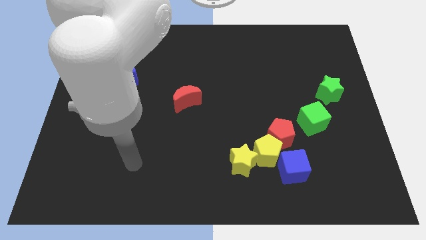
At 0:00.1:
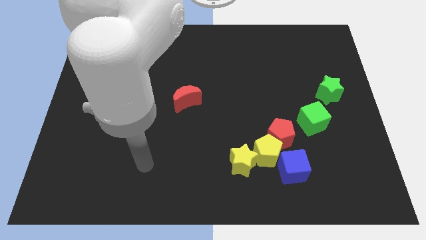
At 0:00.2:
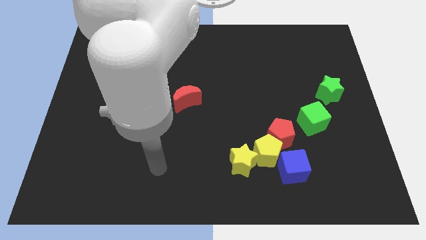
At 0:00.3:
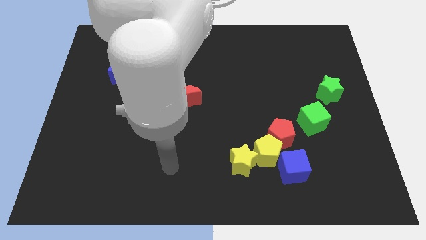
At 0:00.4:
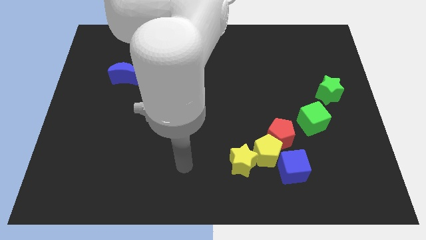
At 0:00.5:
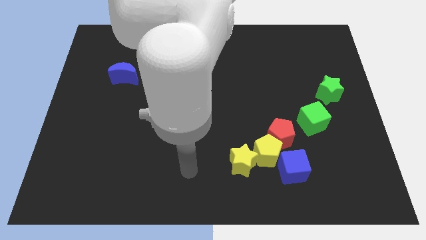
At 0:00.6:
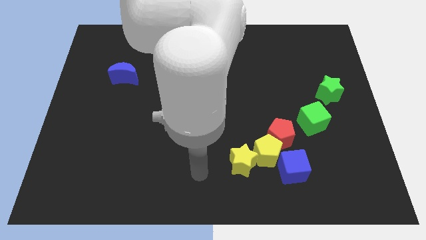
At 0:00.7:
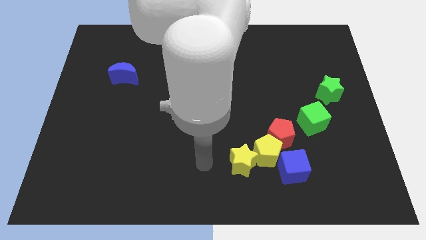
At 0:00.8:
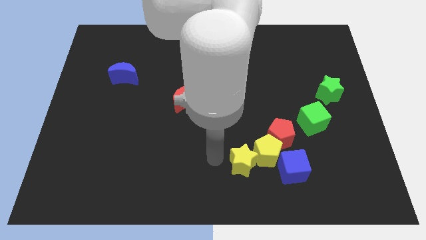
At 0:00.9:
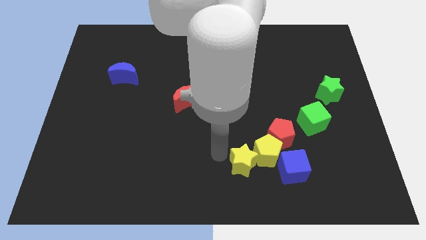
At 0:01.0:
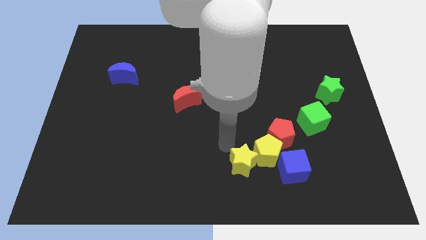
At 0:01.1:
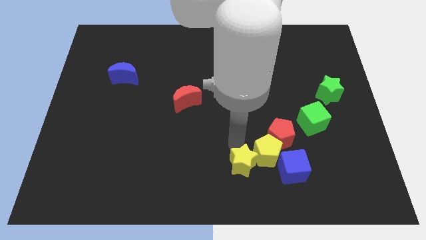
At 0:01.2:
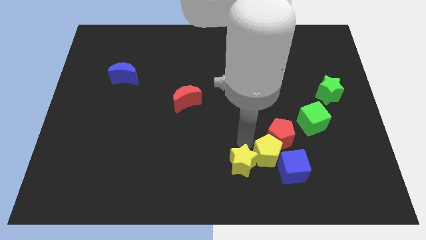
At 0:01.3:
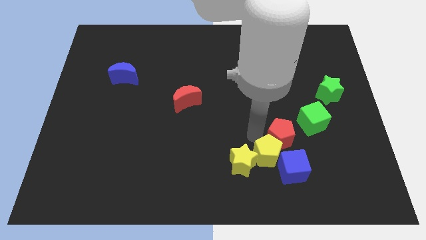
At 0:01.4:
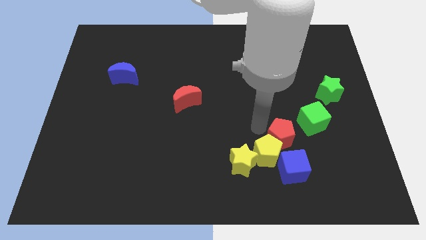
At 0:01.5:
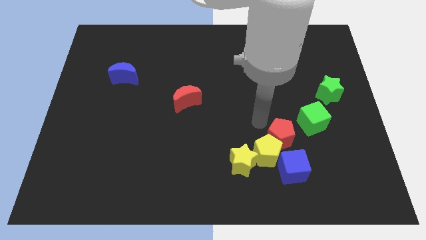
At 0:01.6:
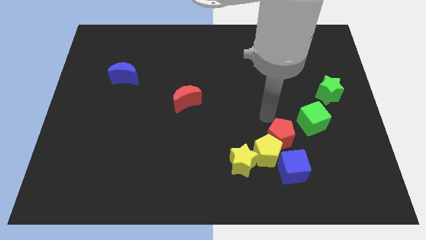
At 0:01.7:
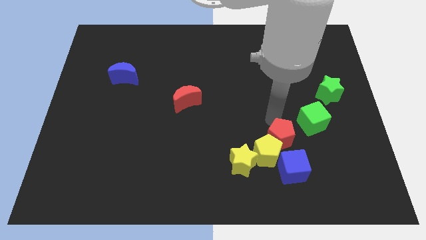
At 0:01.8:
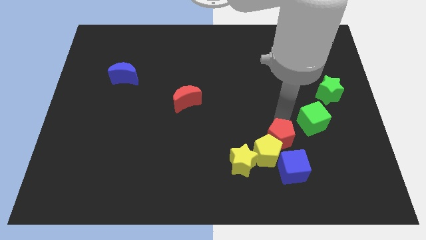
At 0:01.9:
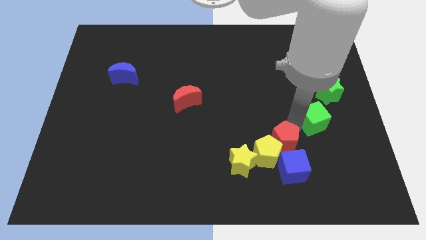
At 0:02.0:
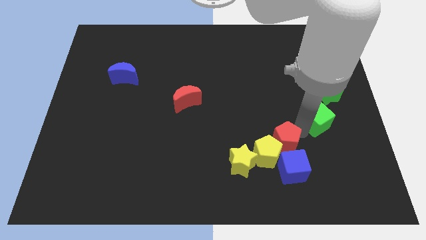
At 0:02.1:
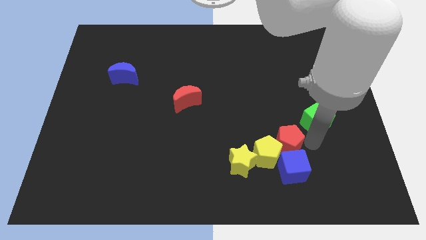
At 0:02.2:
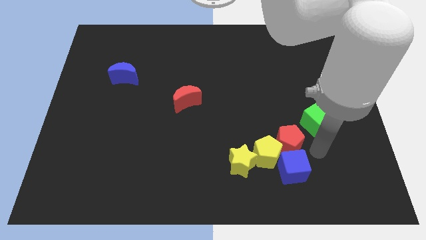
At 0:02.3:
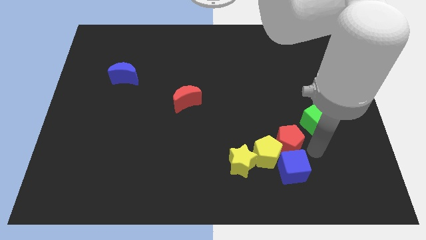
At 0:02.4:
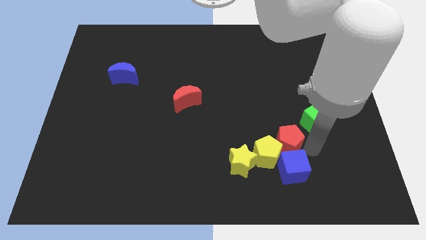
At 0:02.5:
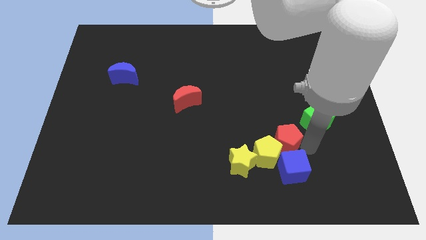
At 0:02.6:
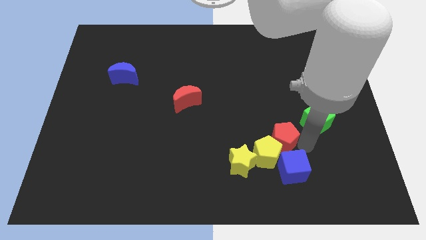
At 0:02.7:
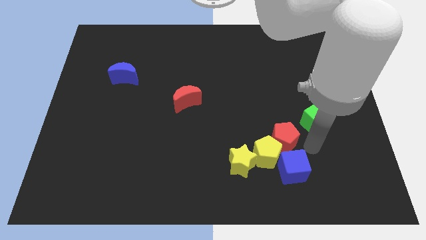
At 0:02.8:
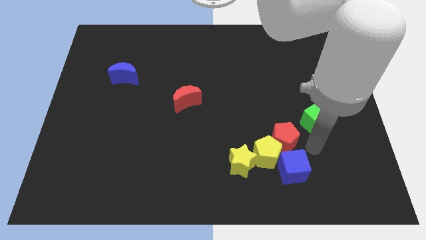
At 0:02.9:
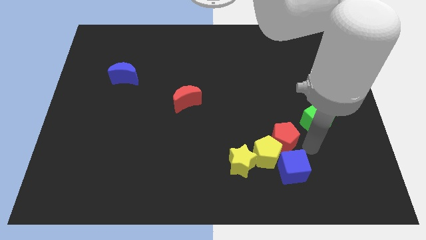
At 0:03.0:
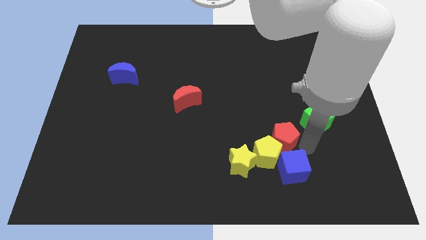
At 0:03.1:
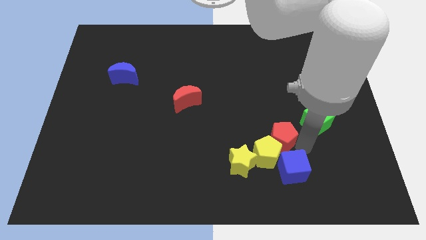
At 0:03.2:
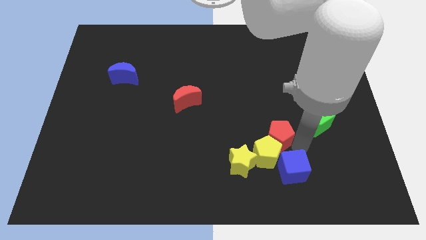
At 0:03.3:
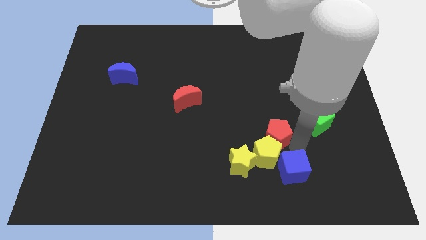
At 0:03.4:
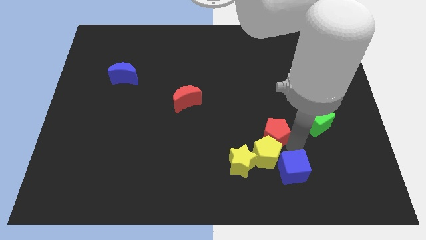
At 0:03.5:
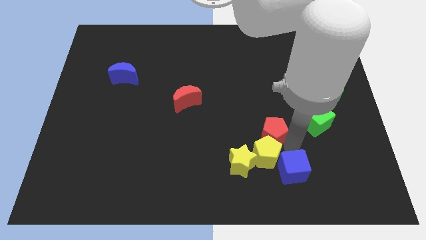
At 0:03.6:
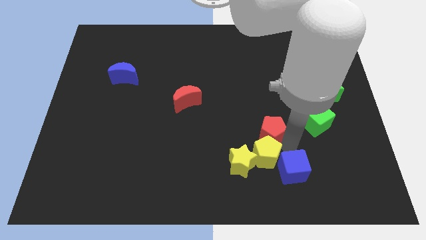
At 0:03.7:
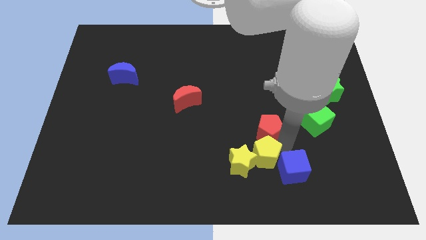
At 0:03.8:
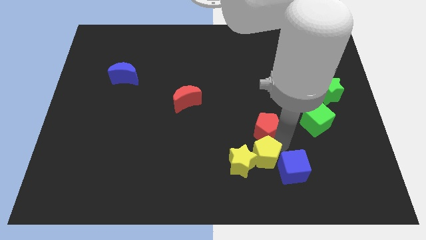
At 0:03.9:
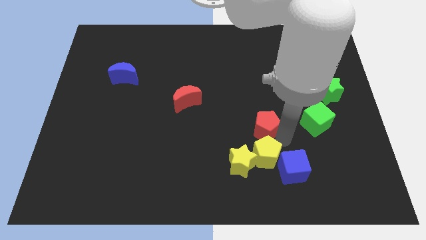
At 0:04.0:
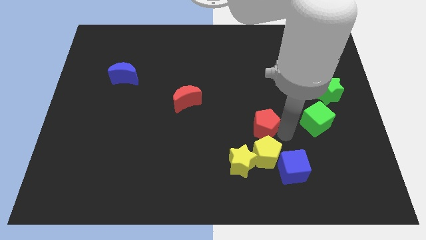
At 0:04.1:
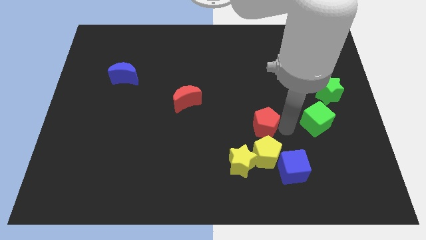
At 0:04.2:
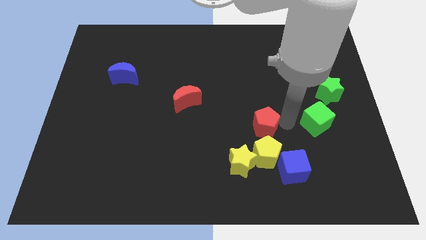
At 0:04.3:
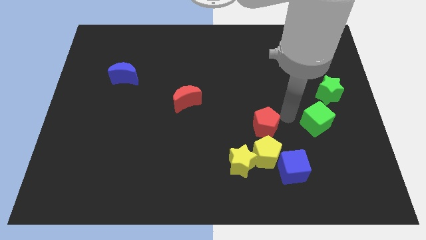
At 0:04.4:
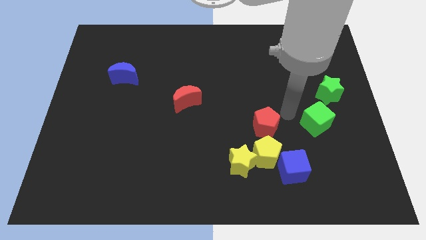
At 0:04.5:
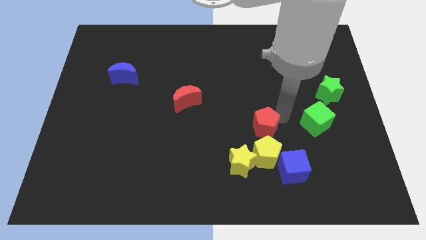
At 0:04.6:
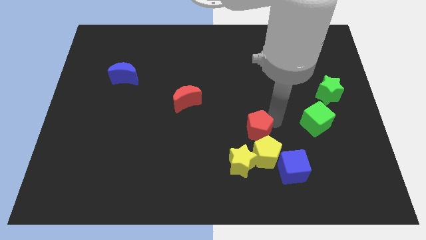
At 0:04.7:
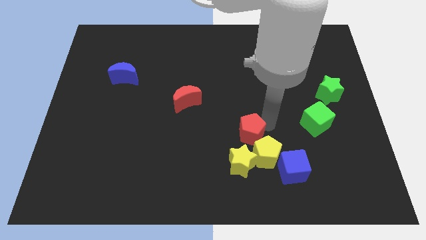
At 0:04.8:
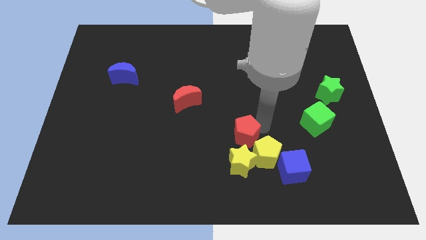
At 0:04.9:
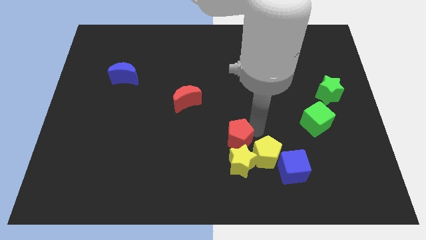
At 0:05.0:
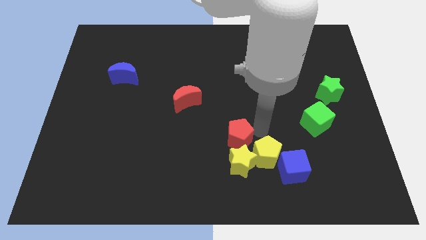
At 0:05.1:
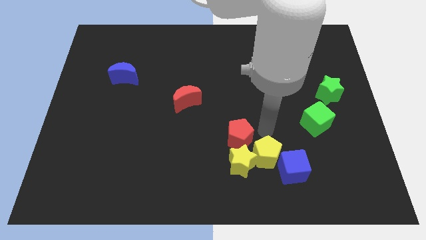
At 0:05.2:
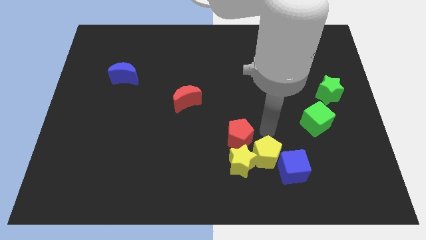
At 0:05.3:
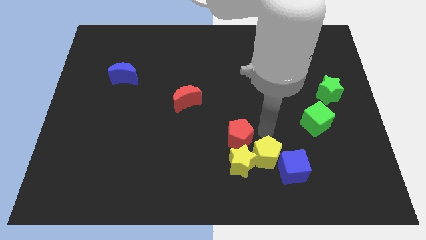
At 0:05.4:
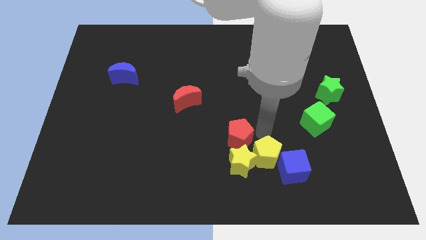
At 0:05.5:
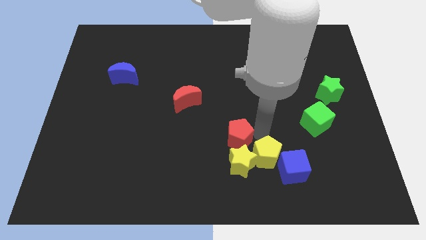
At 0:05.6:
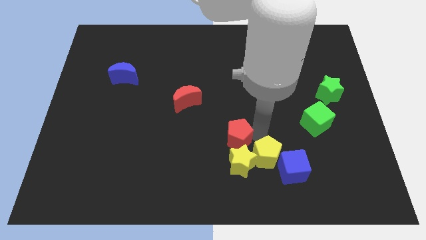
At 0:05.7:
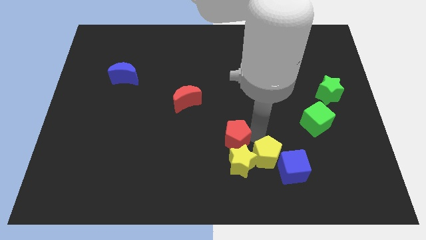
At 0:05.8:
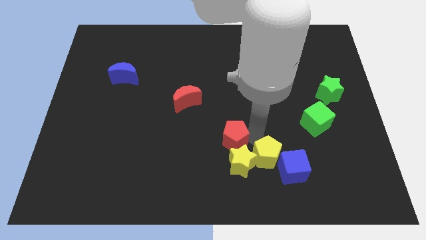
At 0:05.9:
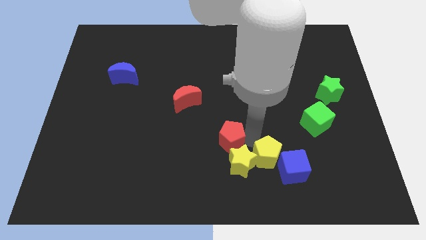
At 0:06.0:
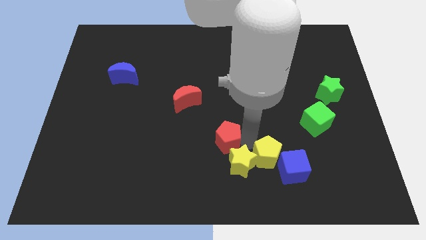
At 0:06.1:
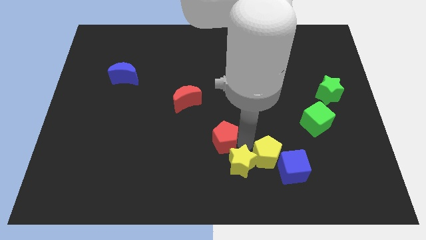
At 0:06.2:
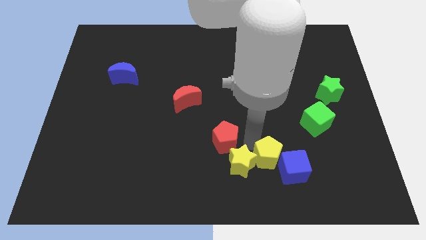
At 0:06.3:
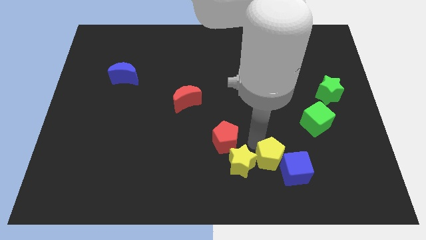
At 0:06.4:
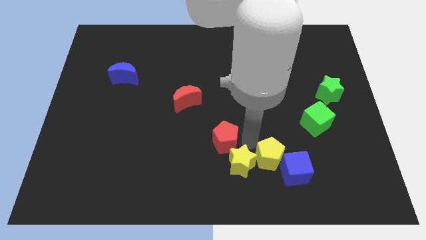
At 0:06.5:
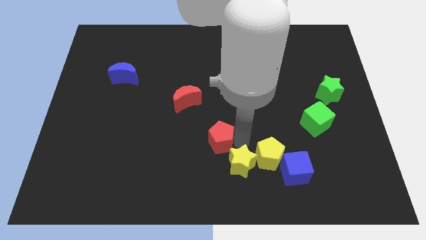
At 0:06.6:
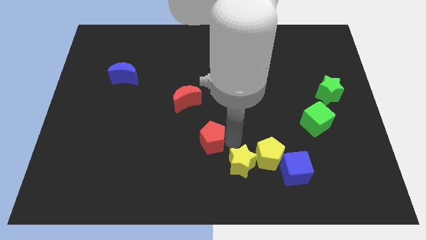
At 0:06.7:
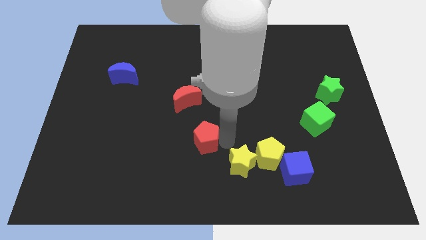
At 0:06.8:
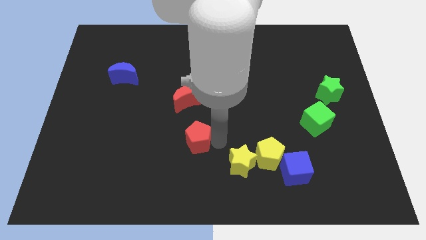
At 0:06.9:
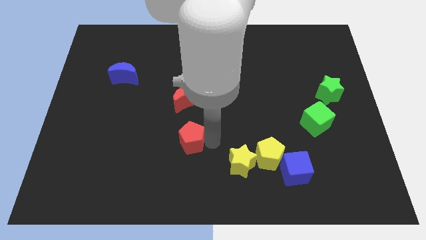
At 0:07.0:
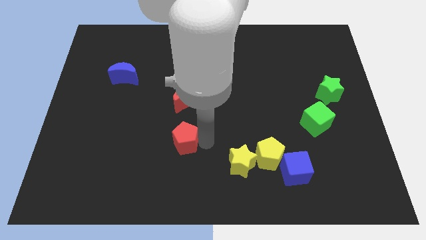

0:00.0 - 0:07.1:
push the red pentagon left

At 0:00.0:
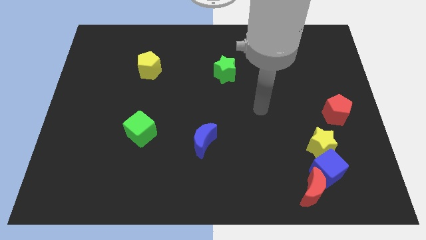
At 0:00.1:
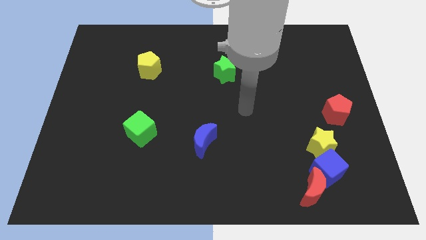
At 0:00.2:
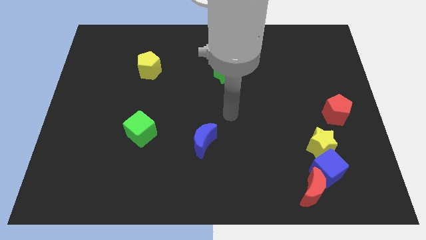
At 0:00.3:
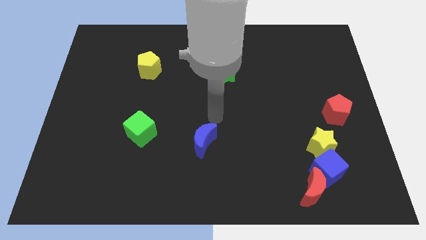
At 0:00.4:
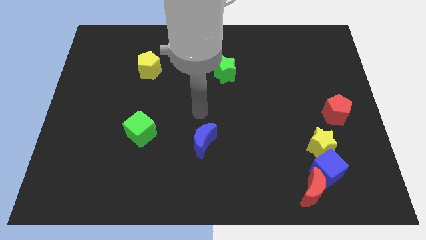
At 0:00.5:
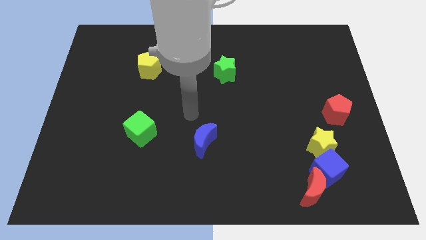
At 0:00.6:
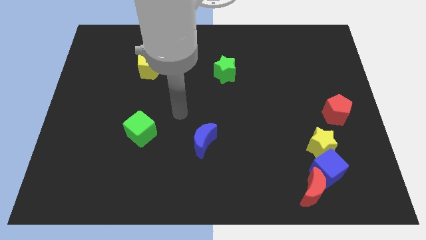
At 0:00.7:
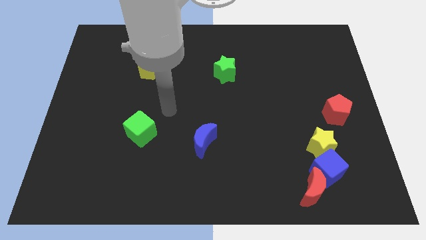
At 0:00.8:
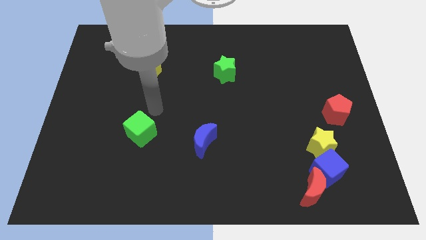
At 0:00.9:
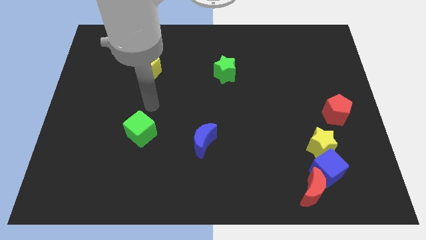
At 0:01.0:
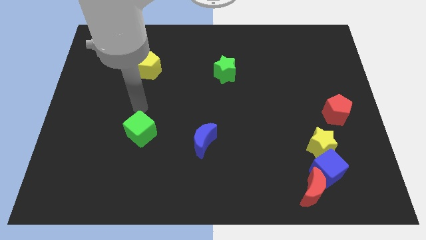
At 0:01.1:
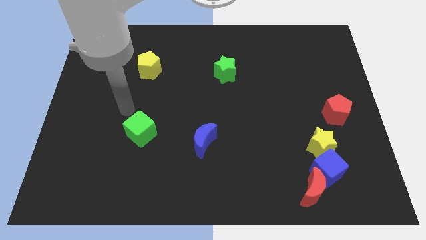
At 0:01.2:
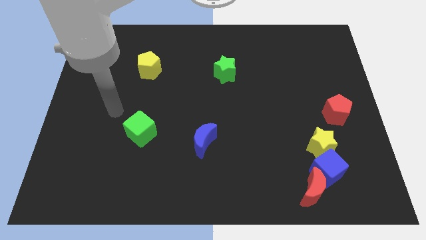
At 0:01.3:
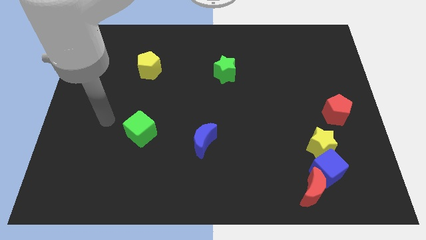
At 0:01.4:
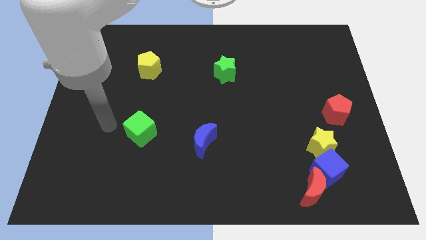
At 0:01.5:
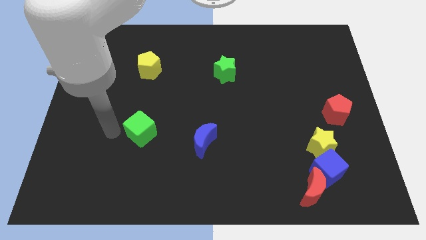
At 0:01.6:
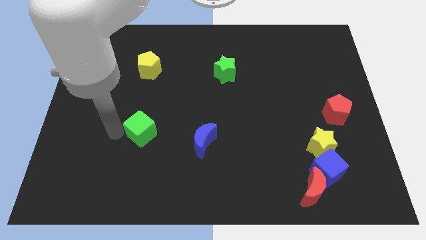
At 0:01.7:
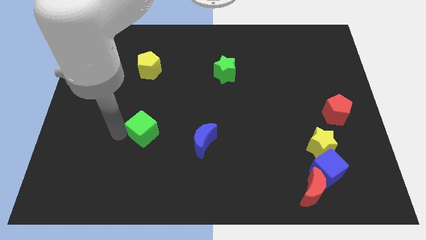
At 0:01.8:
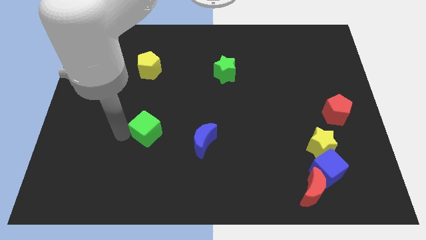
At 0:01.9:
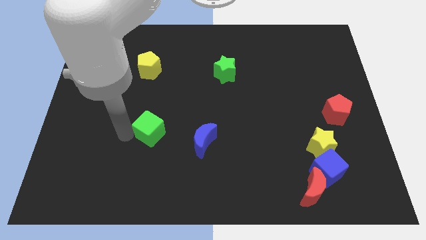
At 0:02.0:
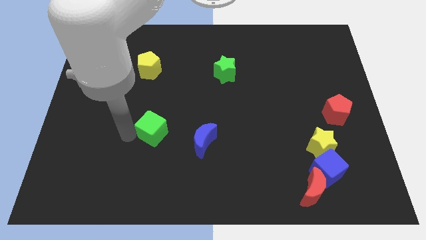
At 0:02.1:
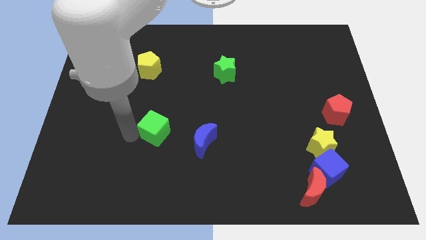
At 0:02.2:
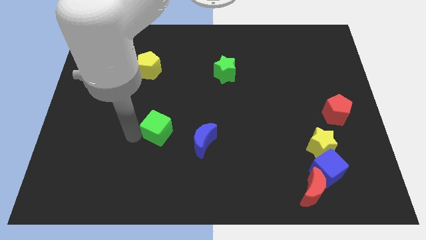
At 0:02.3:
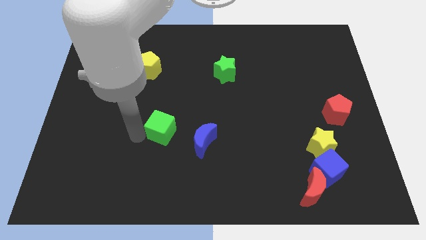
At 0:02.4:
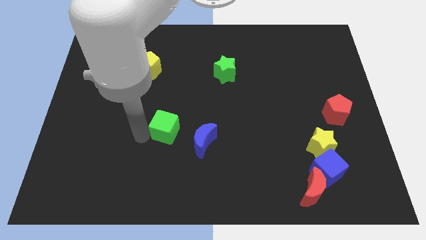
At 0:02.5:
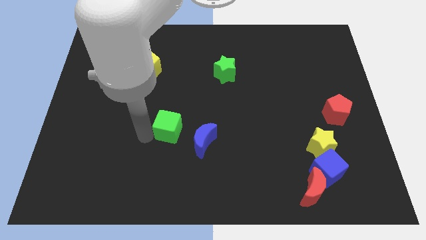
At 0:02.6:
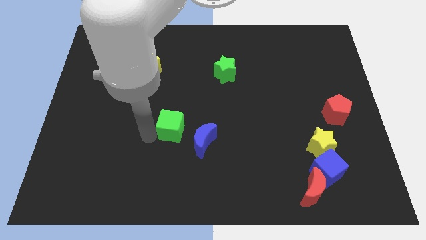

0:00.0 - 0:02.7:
slide the green cube right a little
